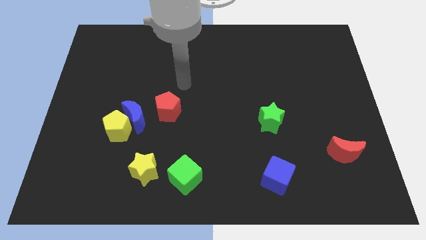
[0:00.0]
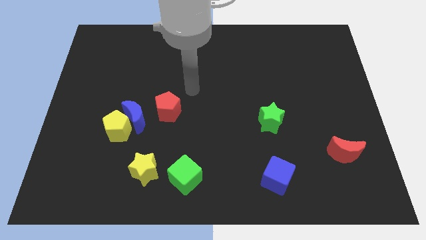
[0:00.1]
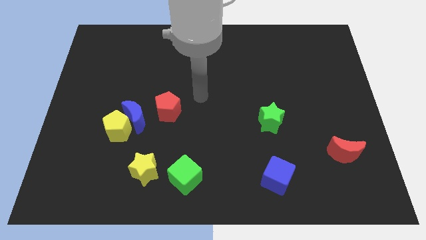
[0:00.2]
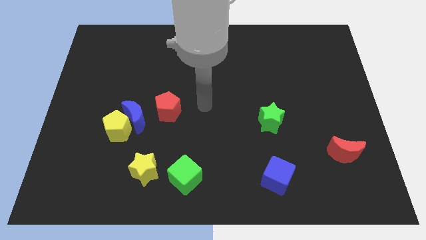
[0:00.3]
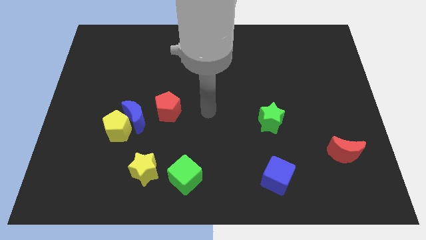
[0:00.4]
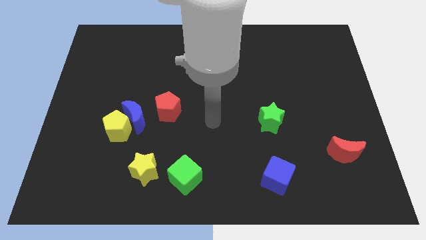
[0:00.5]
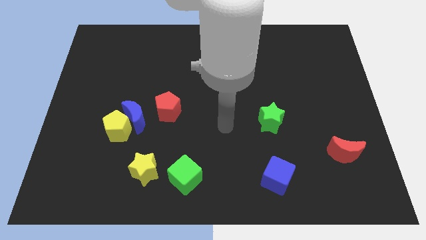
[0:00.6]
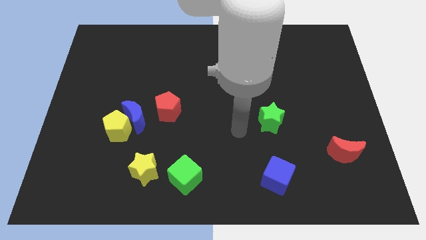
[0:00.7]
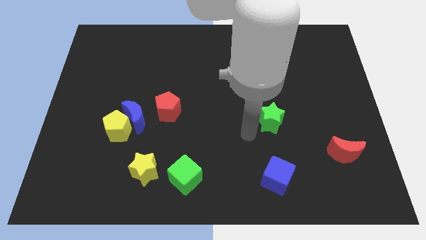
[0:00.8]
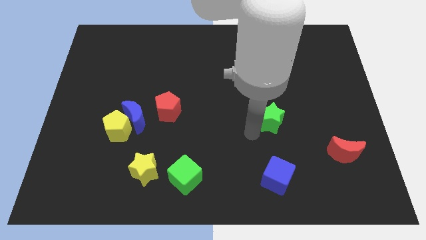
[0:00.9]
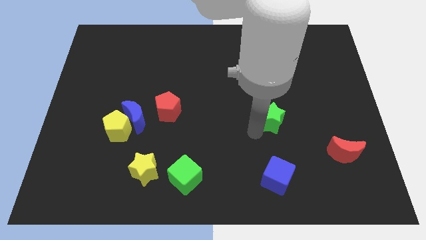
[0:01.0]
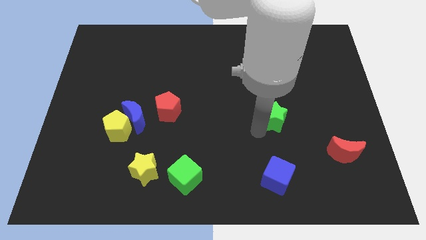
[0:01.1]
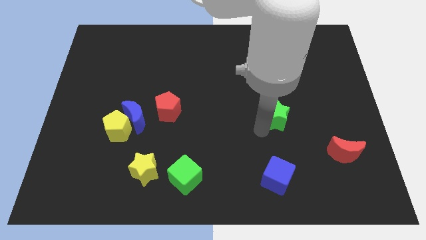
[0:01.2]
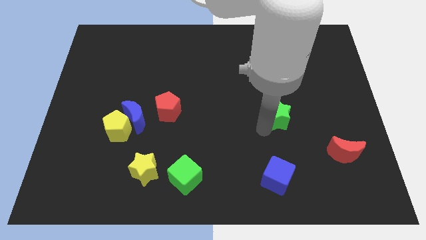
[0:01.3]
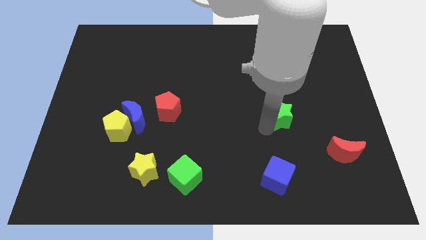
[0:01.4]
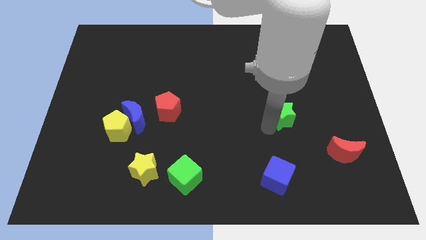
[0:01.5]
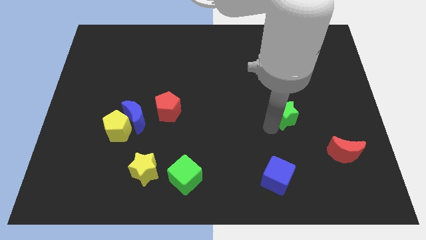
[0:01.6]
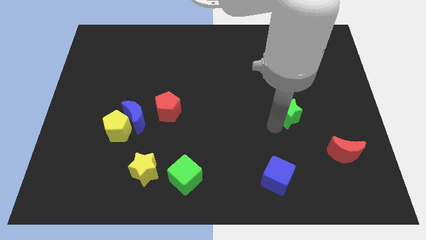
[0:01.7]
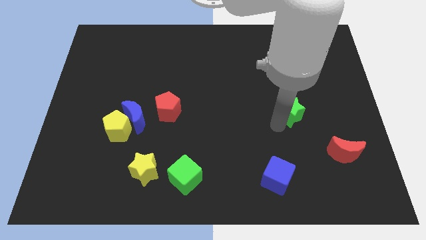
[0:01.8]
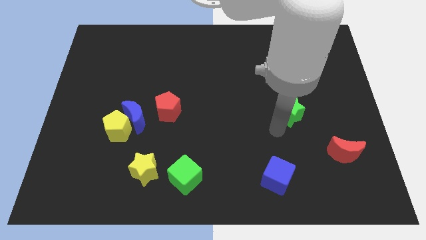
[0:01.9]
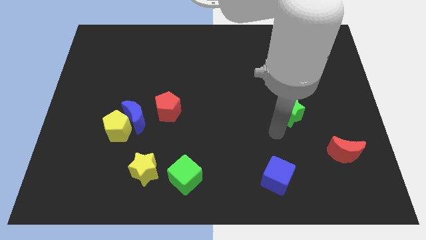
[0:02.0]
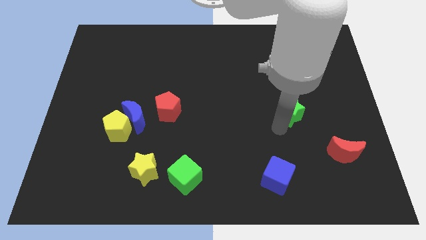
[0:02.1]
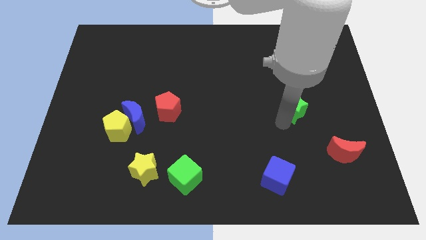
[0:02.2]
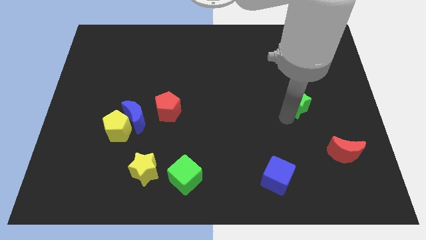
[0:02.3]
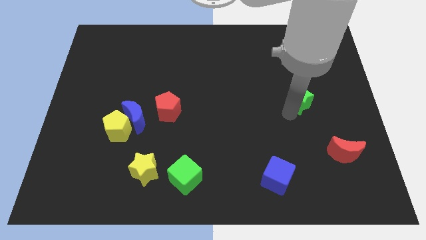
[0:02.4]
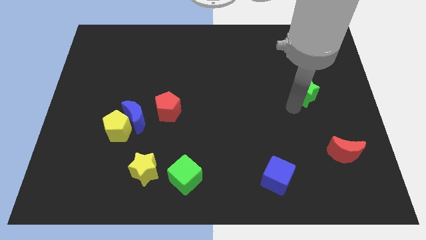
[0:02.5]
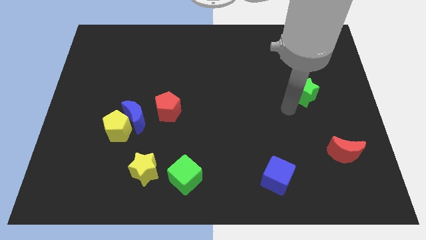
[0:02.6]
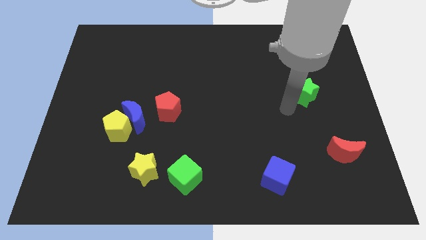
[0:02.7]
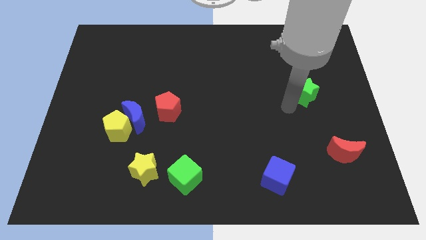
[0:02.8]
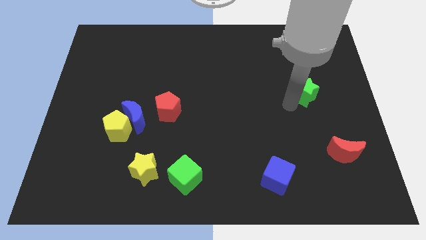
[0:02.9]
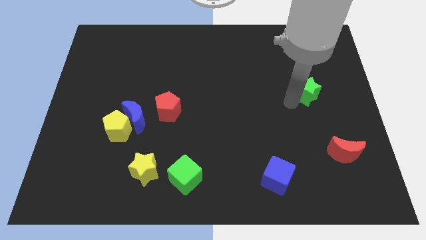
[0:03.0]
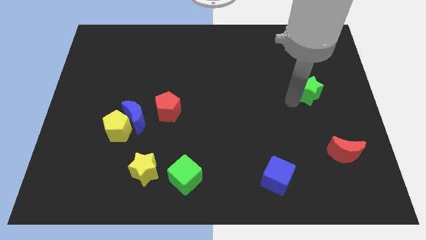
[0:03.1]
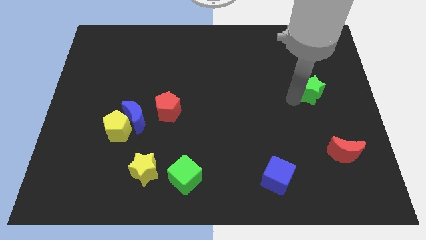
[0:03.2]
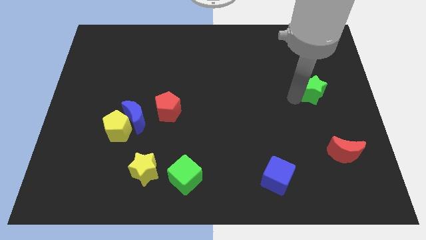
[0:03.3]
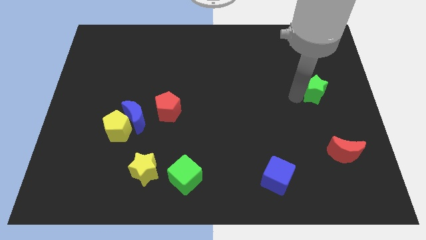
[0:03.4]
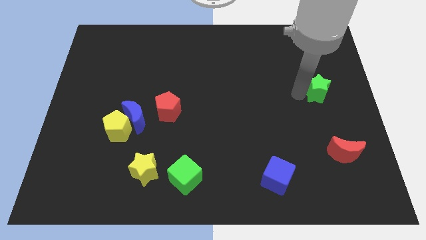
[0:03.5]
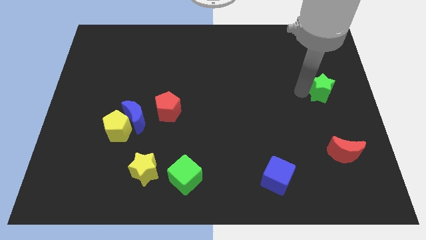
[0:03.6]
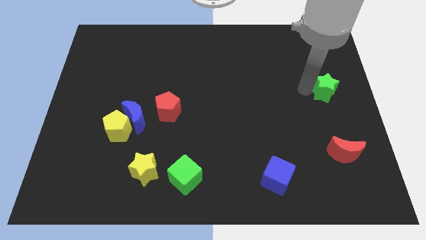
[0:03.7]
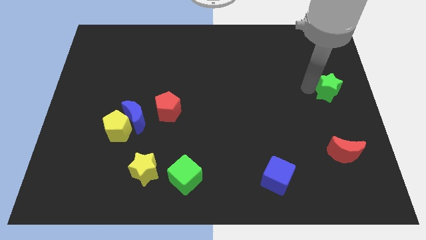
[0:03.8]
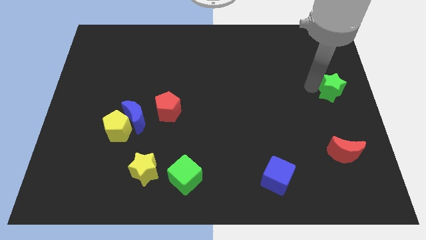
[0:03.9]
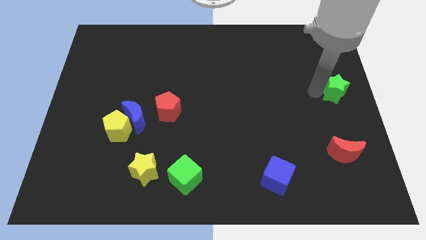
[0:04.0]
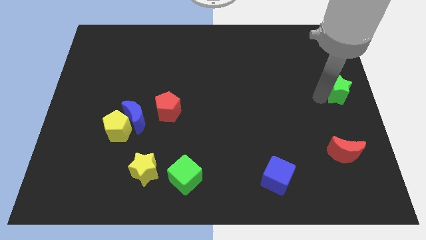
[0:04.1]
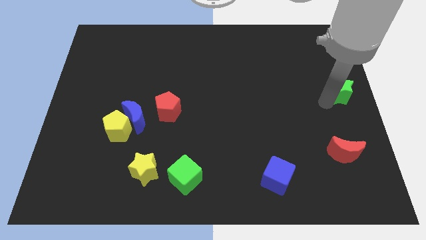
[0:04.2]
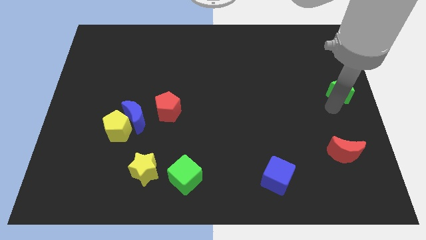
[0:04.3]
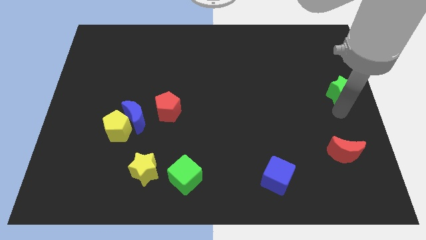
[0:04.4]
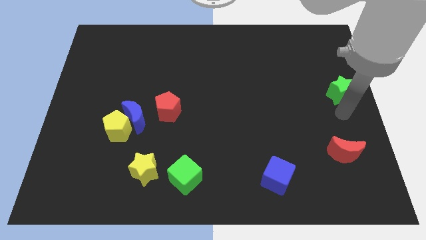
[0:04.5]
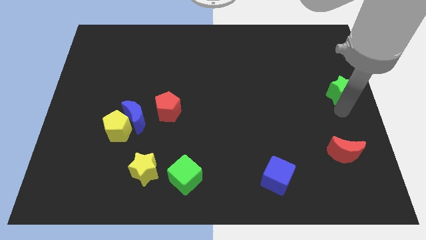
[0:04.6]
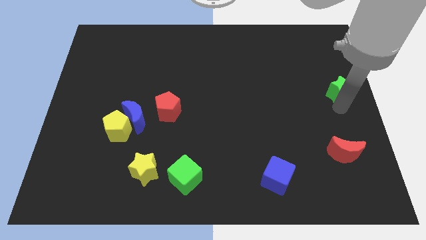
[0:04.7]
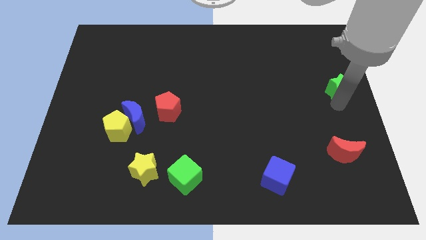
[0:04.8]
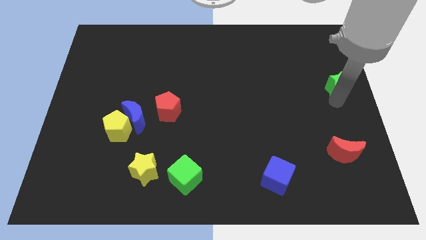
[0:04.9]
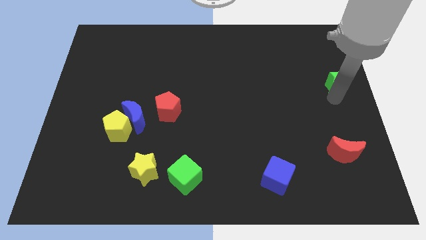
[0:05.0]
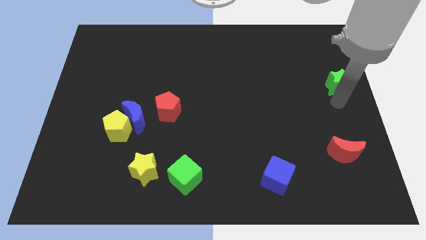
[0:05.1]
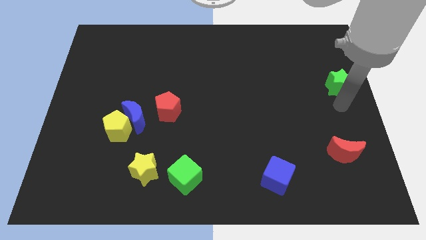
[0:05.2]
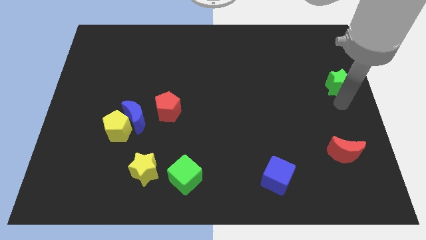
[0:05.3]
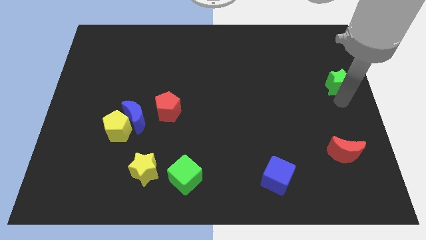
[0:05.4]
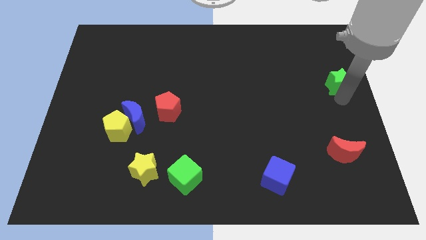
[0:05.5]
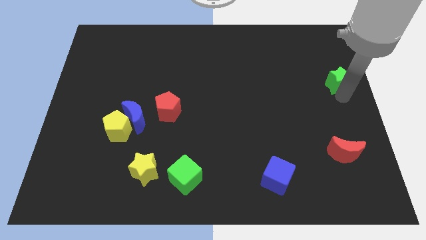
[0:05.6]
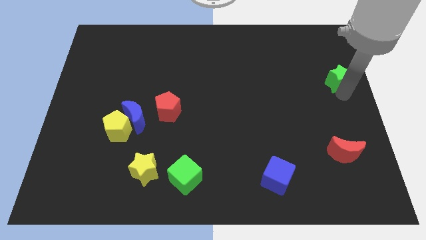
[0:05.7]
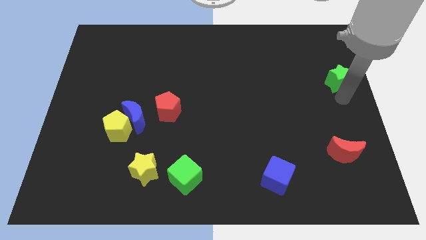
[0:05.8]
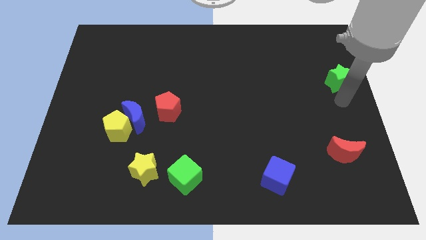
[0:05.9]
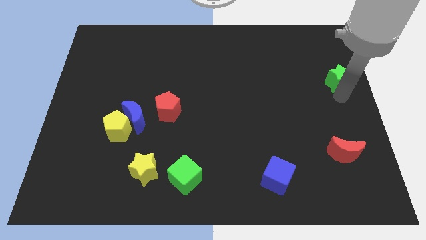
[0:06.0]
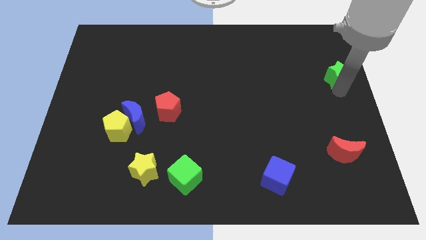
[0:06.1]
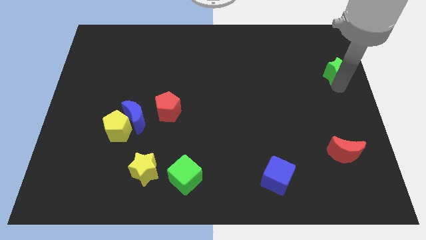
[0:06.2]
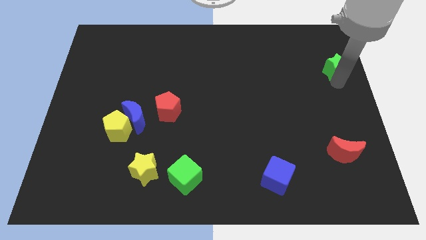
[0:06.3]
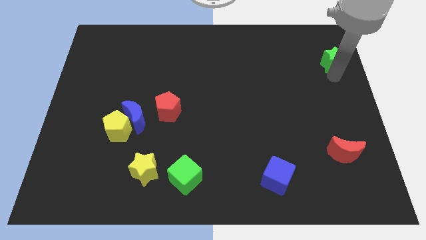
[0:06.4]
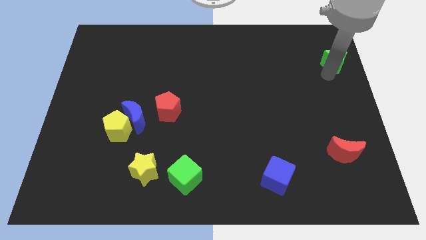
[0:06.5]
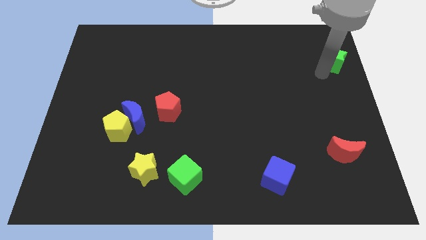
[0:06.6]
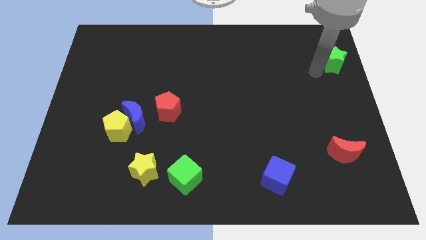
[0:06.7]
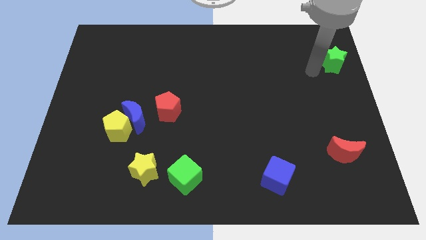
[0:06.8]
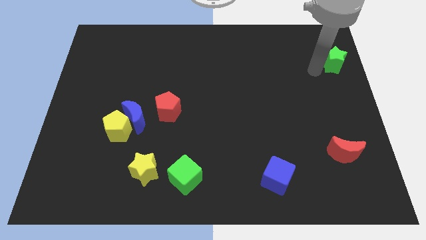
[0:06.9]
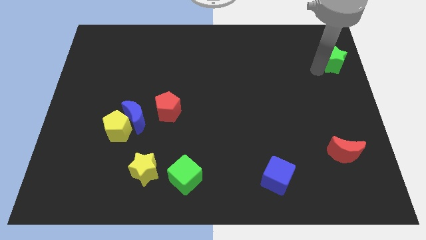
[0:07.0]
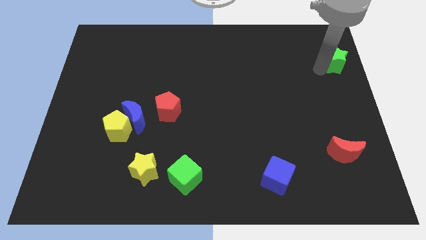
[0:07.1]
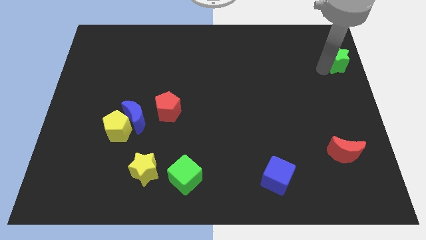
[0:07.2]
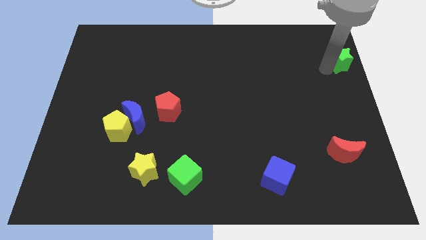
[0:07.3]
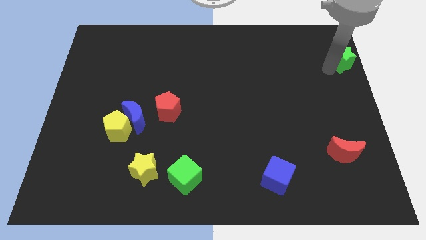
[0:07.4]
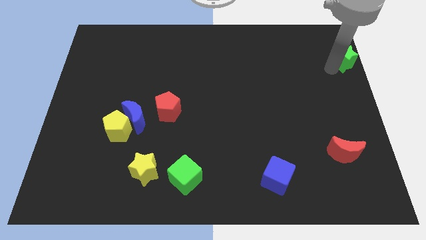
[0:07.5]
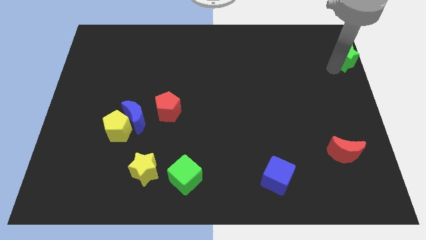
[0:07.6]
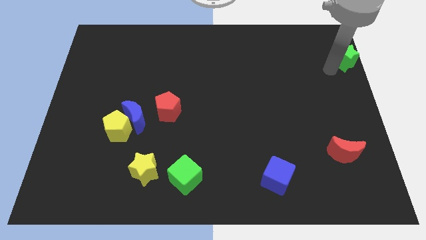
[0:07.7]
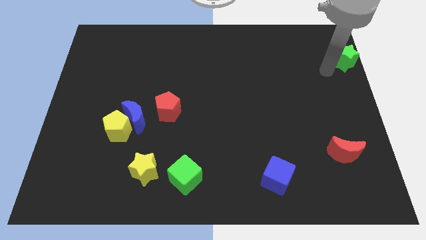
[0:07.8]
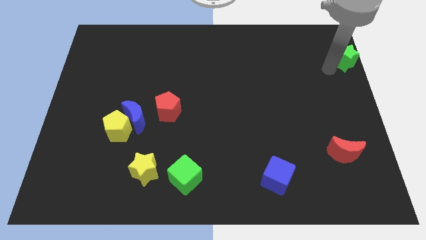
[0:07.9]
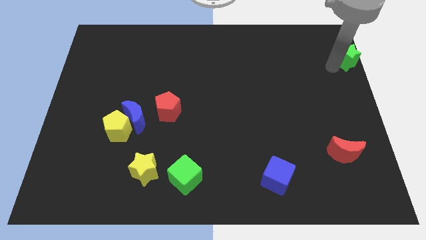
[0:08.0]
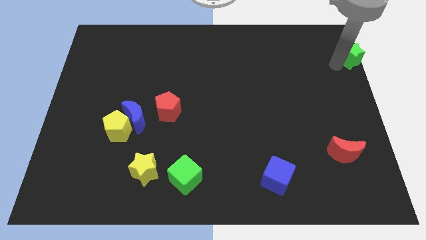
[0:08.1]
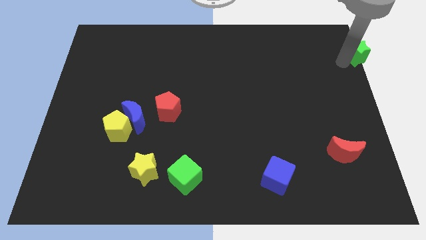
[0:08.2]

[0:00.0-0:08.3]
slide the green star to the top right
